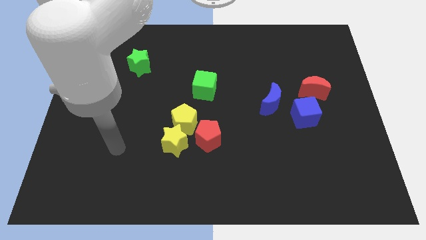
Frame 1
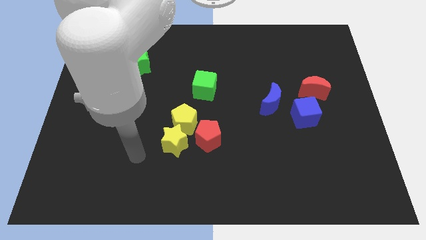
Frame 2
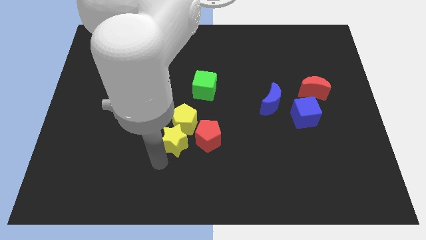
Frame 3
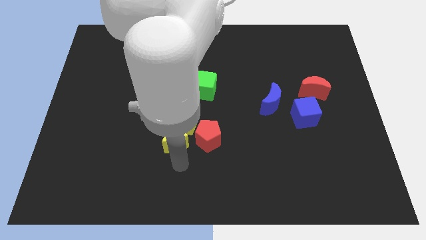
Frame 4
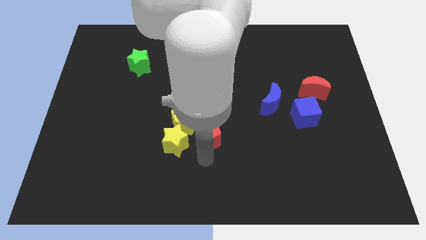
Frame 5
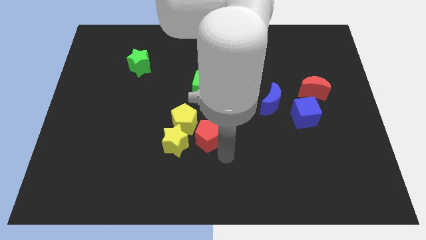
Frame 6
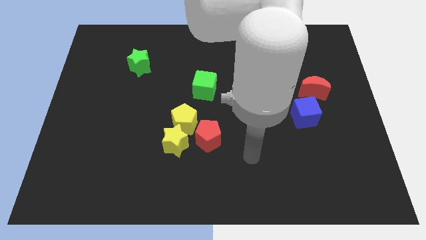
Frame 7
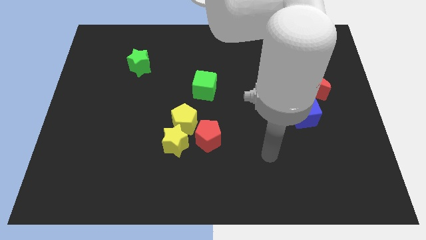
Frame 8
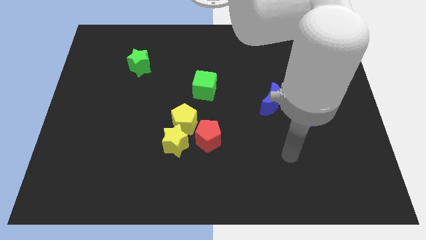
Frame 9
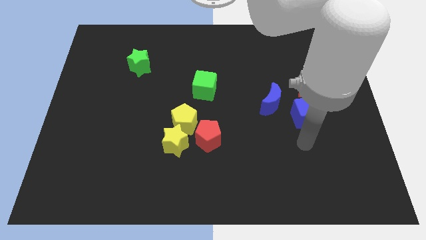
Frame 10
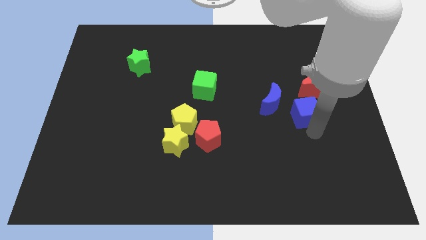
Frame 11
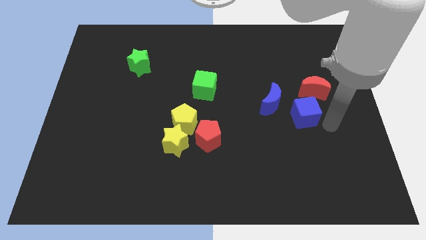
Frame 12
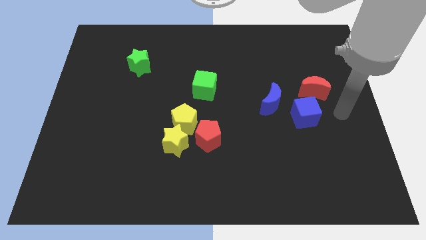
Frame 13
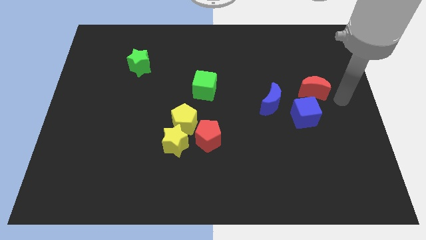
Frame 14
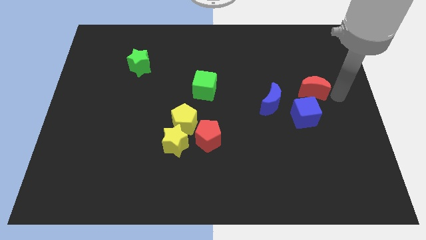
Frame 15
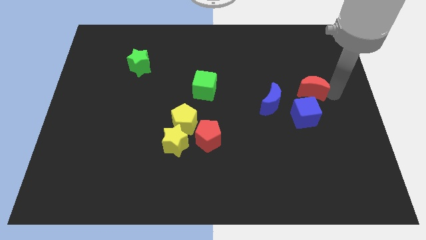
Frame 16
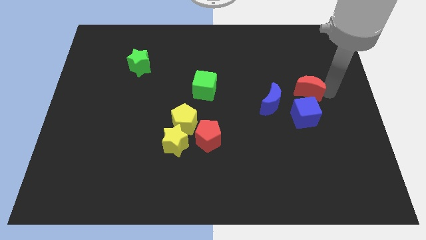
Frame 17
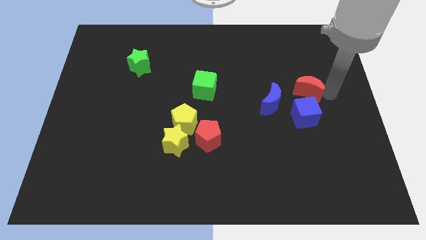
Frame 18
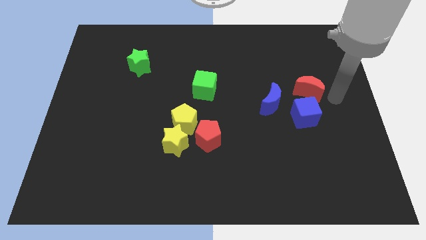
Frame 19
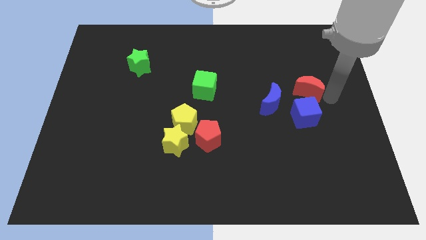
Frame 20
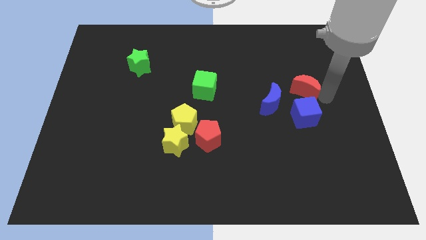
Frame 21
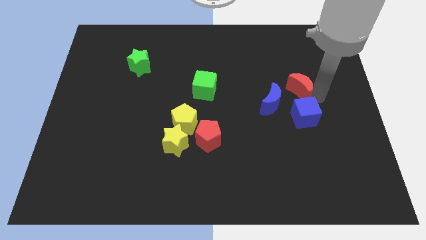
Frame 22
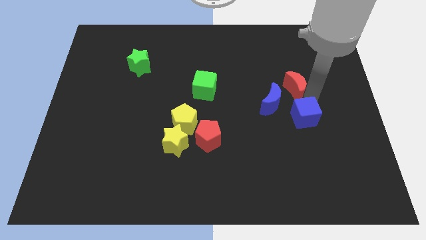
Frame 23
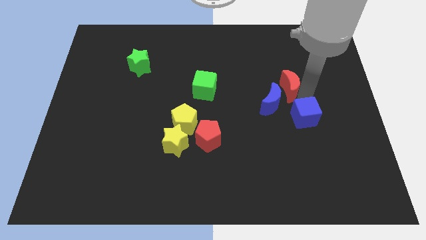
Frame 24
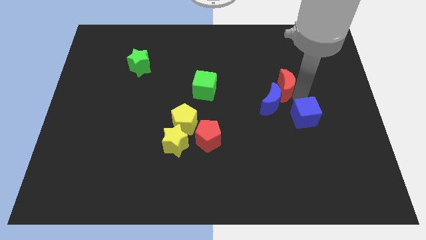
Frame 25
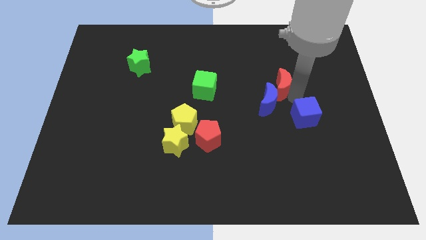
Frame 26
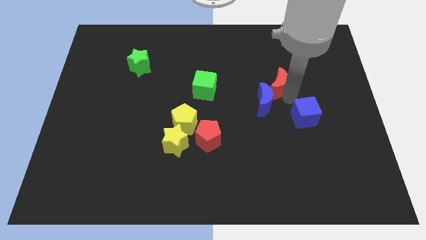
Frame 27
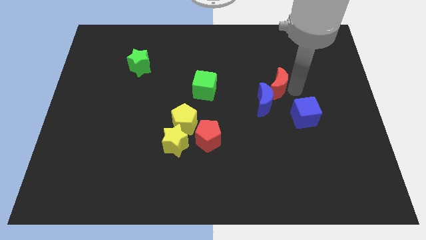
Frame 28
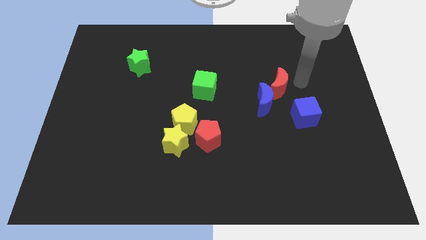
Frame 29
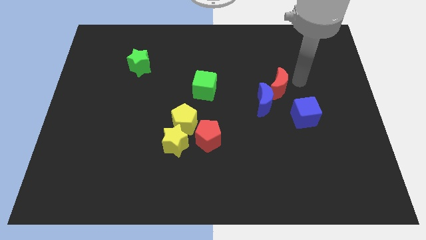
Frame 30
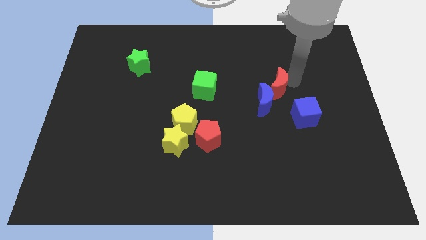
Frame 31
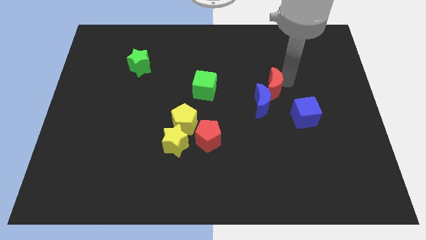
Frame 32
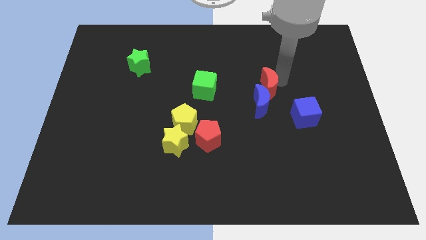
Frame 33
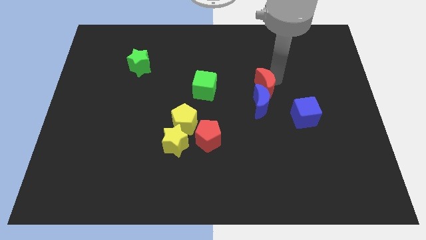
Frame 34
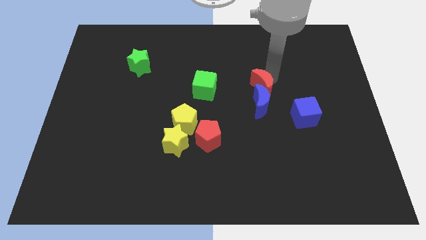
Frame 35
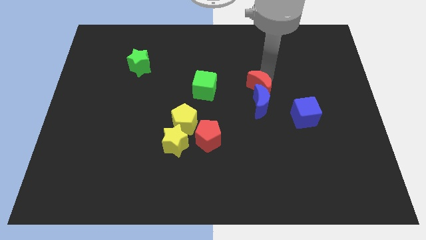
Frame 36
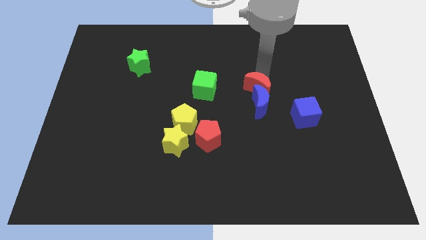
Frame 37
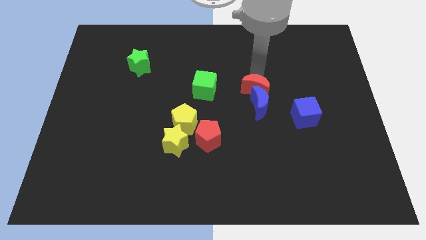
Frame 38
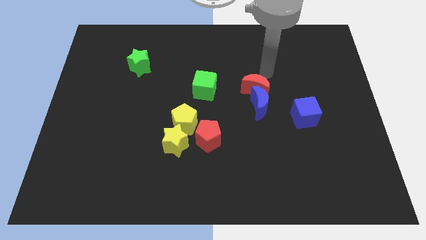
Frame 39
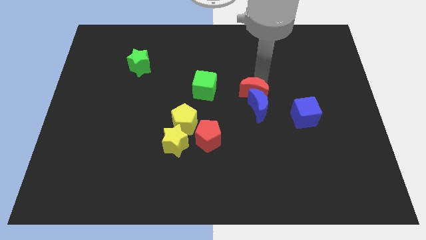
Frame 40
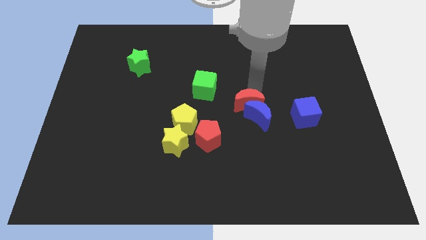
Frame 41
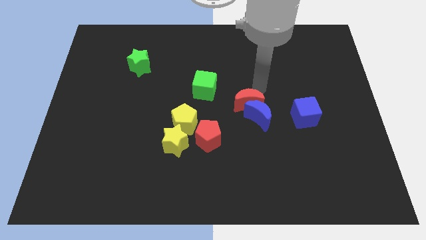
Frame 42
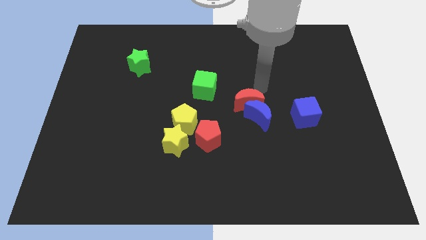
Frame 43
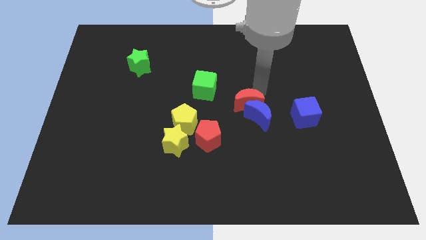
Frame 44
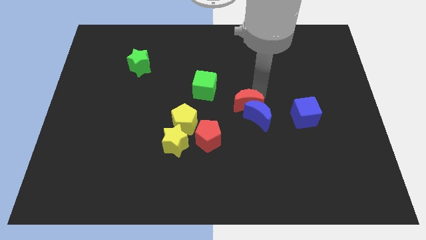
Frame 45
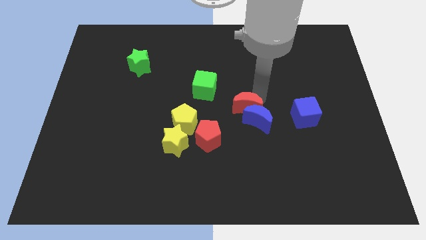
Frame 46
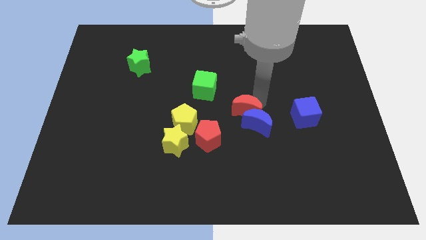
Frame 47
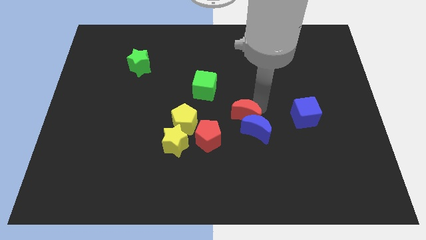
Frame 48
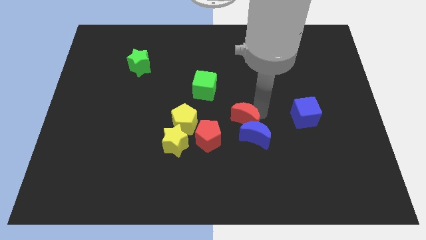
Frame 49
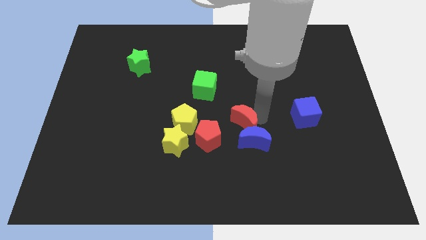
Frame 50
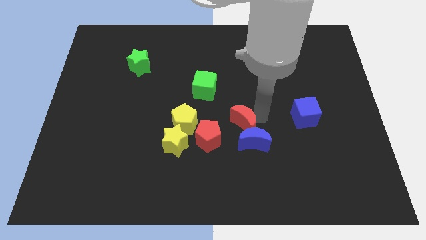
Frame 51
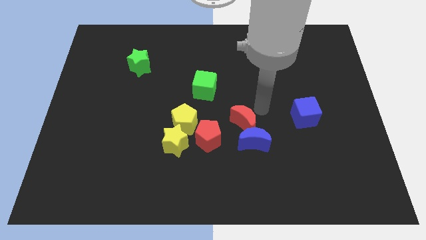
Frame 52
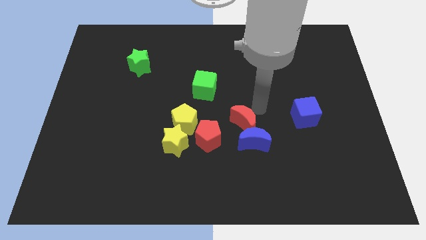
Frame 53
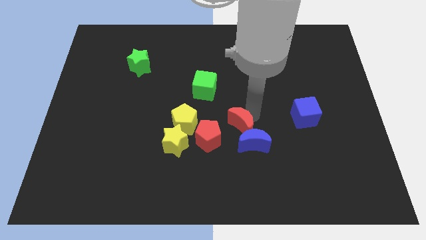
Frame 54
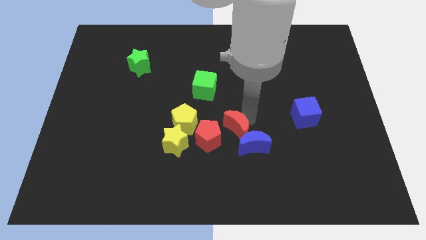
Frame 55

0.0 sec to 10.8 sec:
move the red moon downwards and then to the left

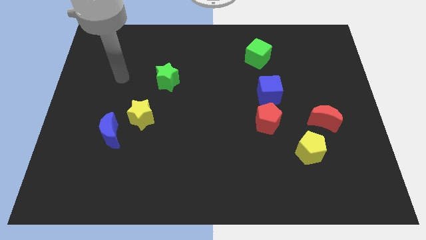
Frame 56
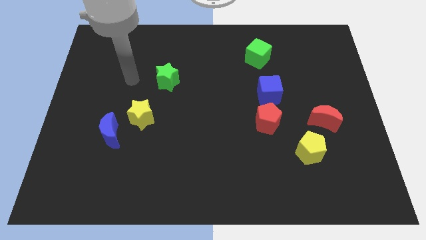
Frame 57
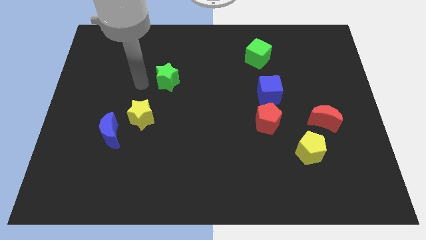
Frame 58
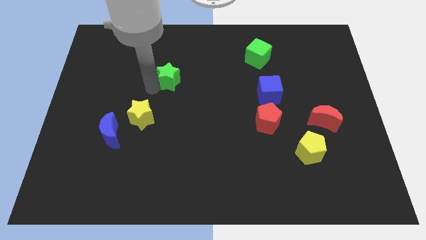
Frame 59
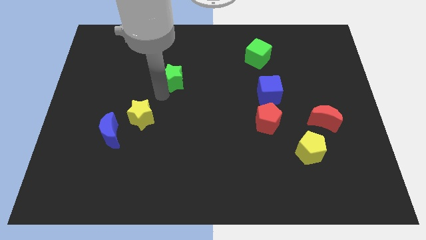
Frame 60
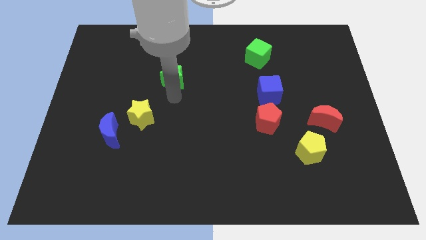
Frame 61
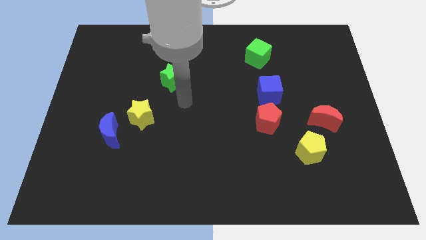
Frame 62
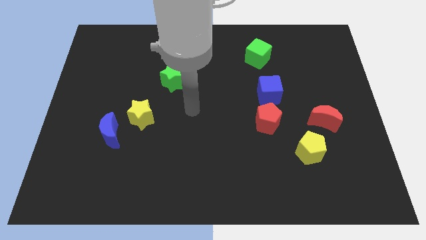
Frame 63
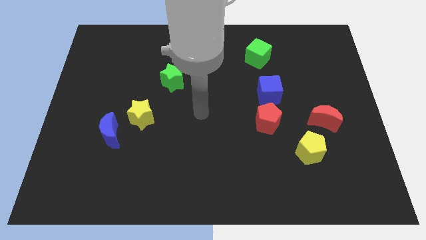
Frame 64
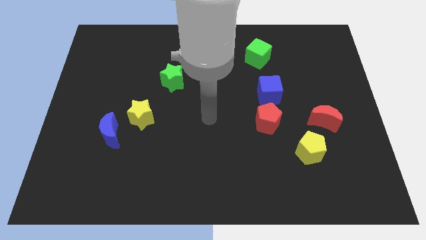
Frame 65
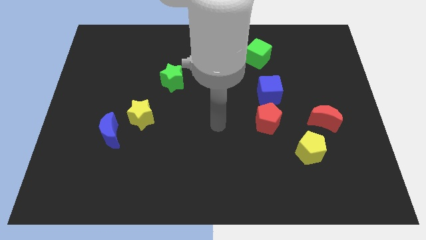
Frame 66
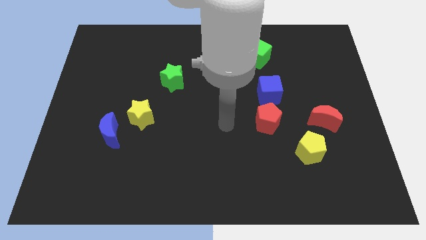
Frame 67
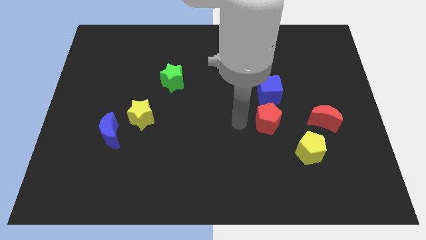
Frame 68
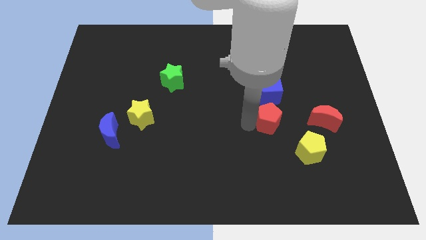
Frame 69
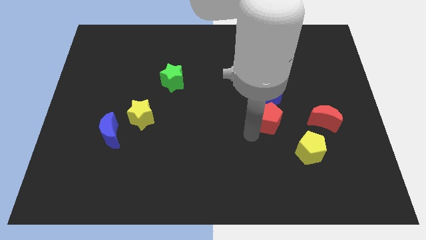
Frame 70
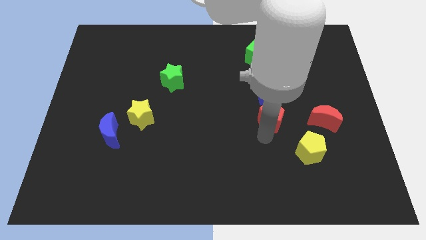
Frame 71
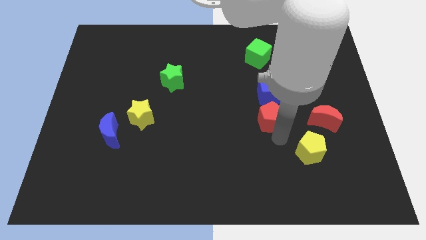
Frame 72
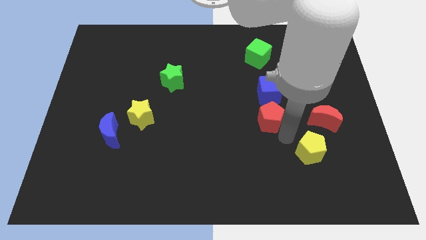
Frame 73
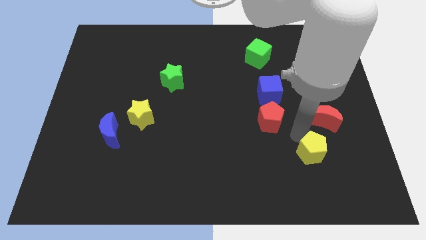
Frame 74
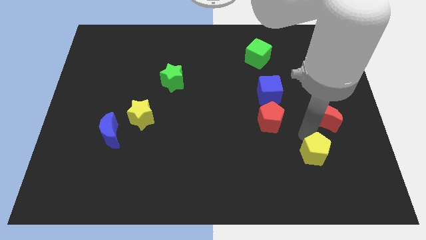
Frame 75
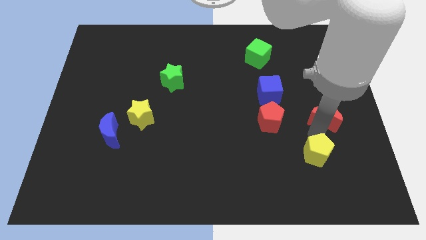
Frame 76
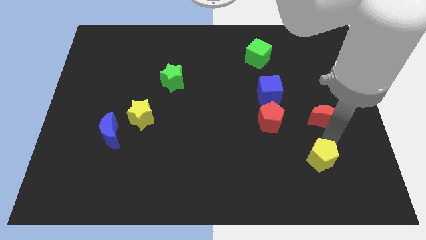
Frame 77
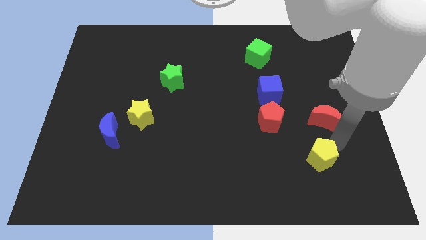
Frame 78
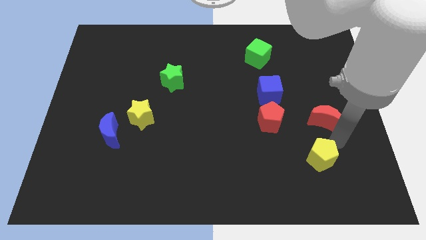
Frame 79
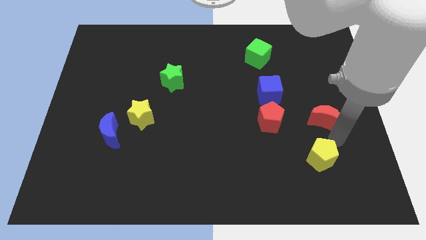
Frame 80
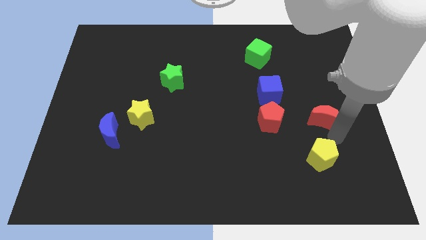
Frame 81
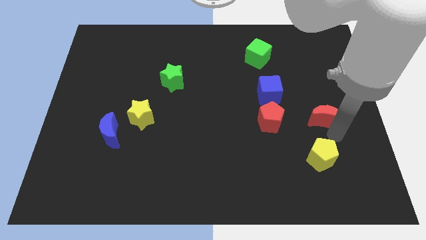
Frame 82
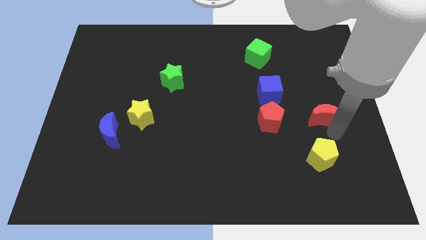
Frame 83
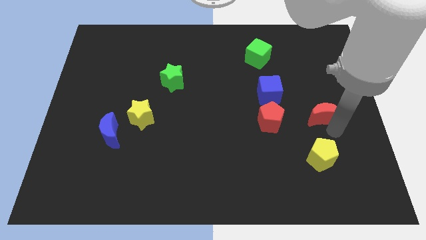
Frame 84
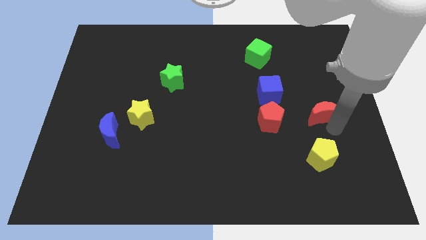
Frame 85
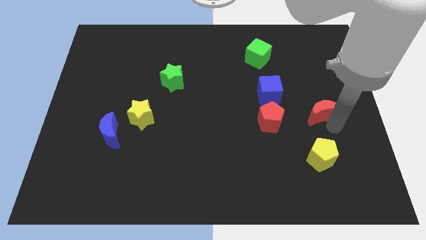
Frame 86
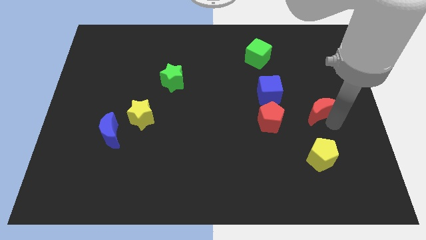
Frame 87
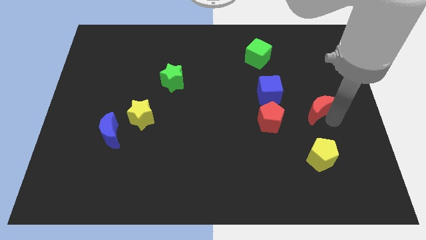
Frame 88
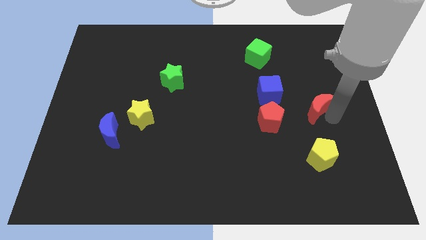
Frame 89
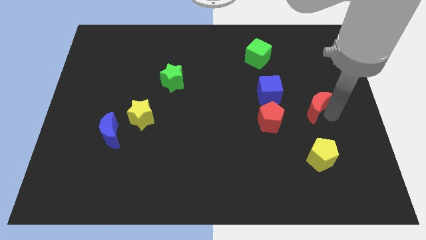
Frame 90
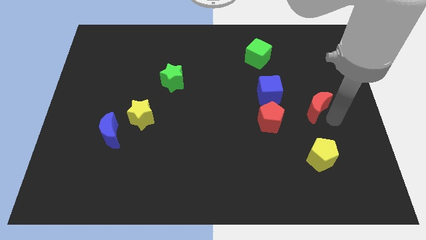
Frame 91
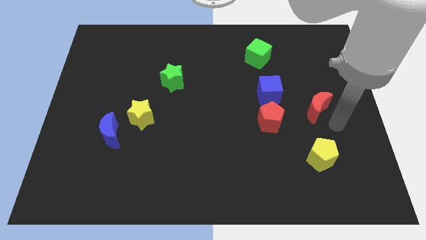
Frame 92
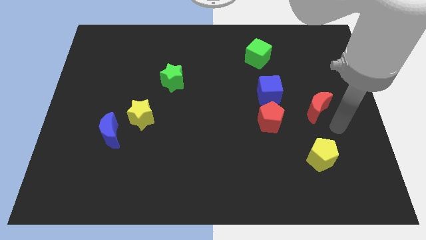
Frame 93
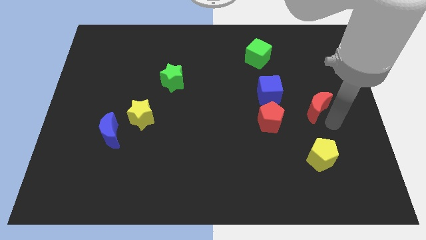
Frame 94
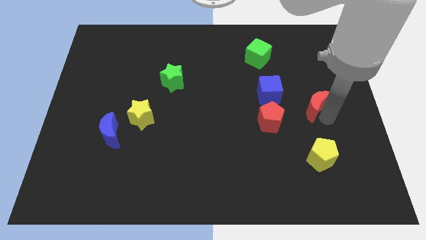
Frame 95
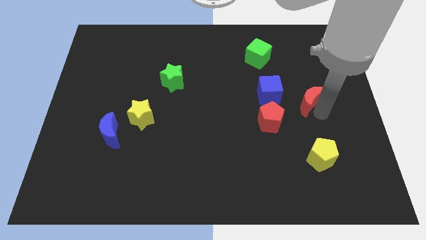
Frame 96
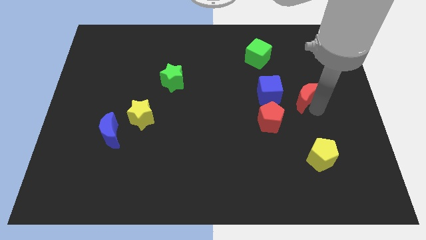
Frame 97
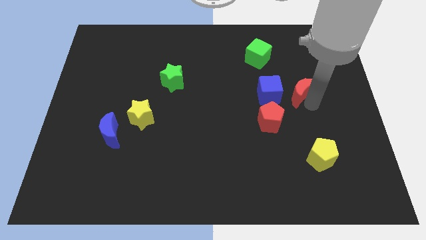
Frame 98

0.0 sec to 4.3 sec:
slide the red moon a little bit up and left
